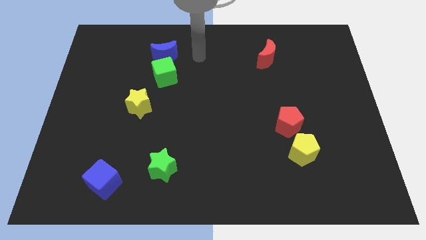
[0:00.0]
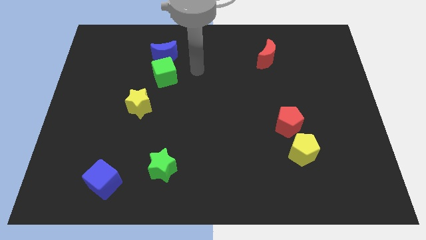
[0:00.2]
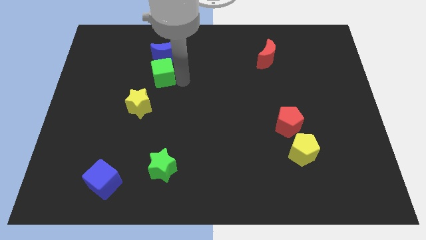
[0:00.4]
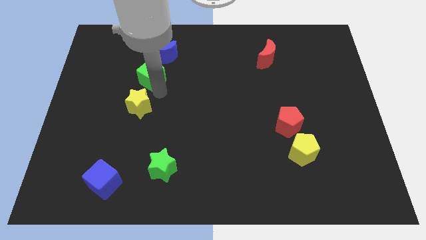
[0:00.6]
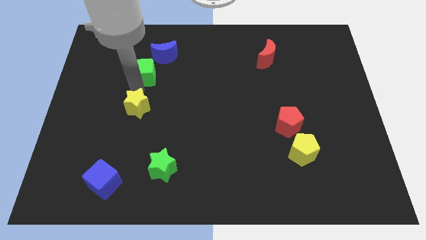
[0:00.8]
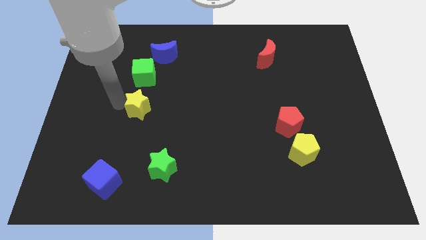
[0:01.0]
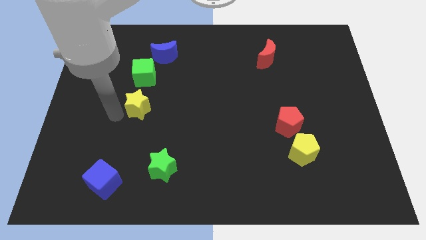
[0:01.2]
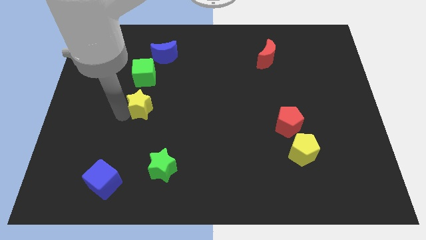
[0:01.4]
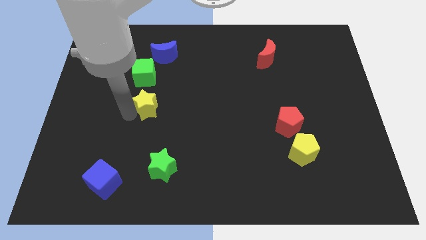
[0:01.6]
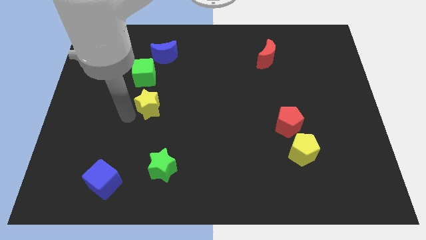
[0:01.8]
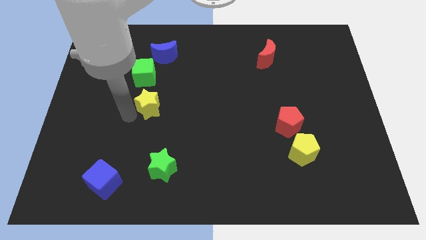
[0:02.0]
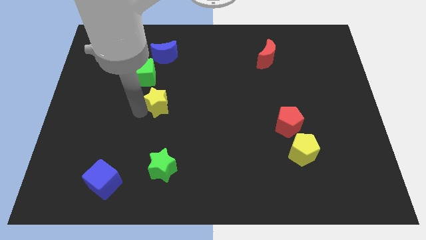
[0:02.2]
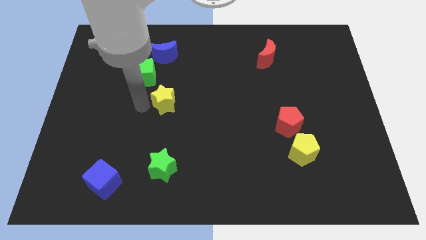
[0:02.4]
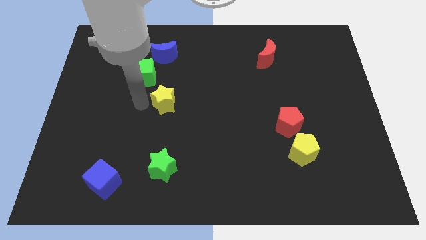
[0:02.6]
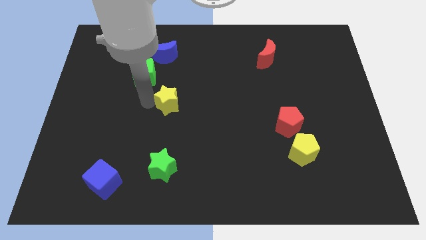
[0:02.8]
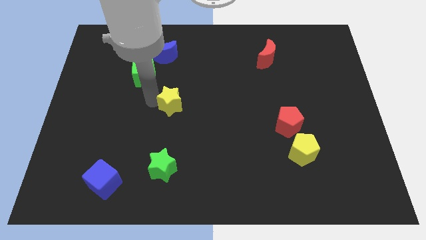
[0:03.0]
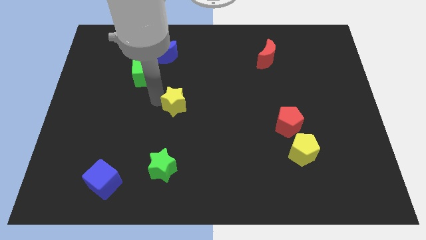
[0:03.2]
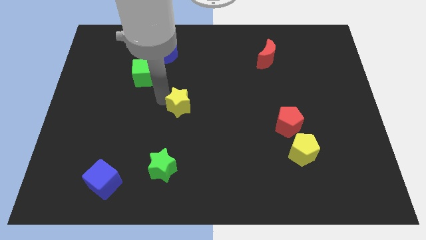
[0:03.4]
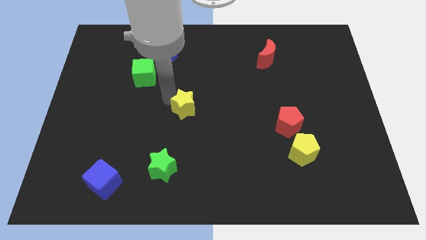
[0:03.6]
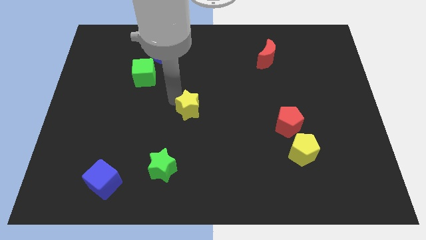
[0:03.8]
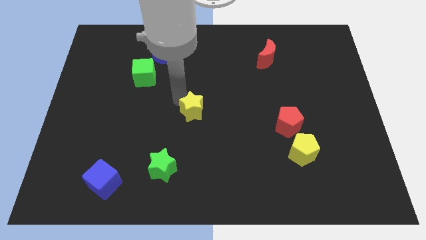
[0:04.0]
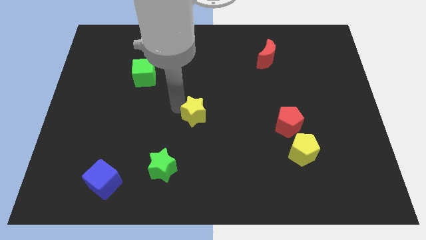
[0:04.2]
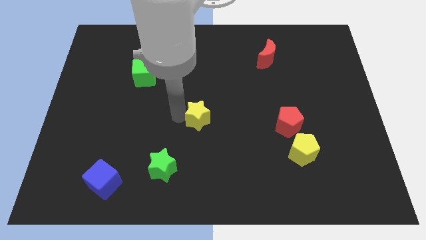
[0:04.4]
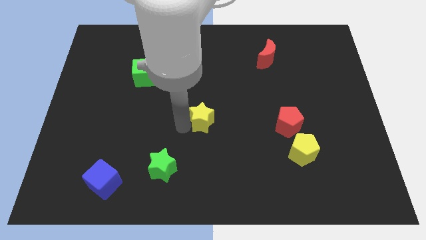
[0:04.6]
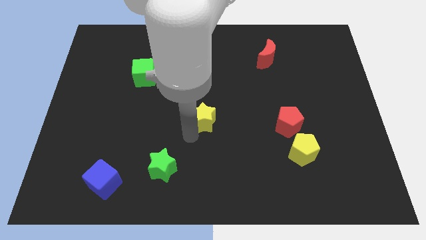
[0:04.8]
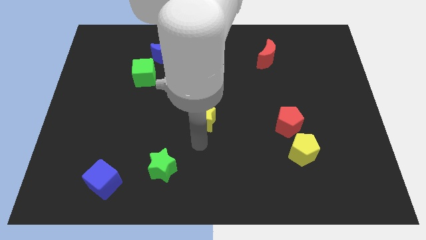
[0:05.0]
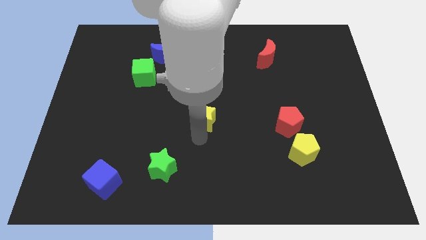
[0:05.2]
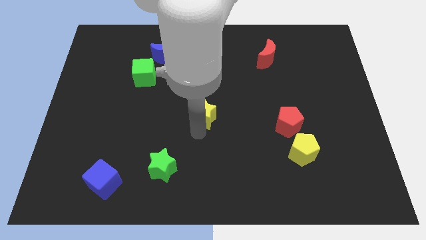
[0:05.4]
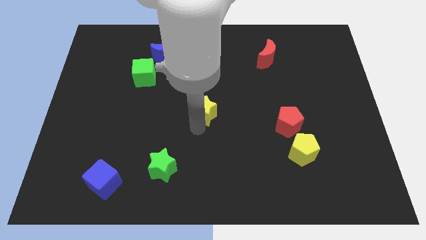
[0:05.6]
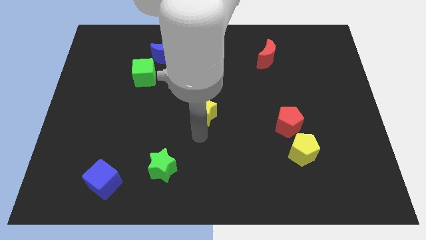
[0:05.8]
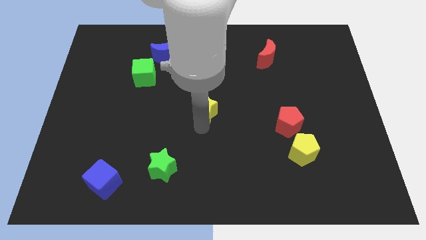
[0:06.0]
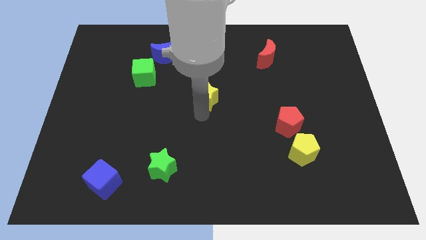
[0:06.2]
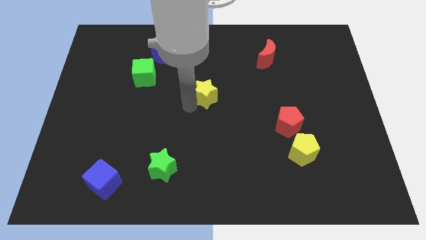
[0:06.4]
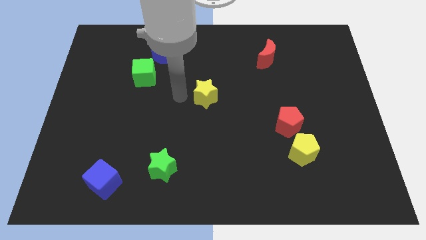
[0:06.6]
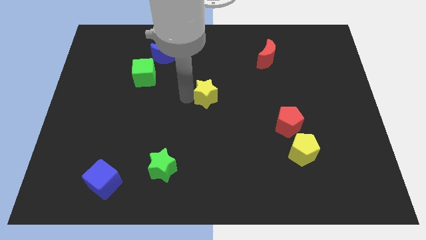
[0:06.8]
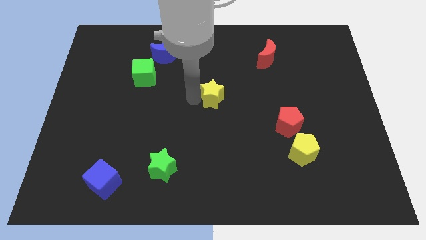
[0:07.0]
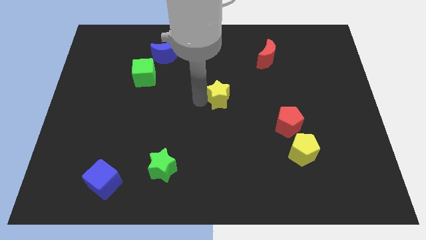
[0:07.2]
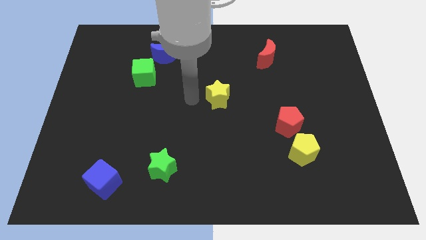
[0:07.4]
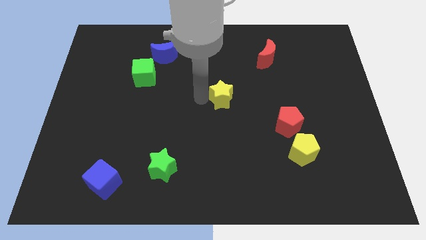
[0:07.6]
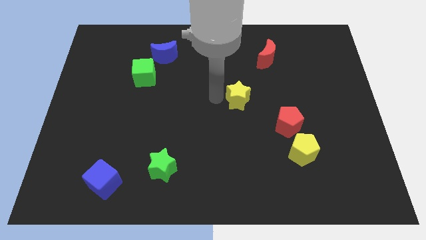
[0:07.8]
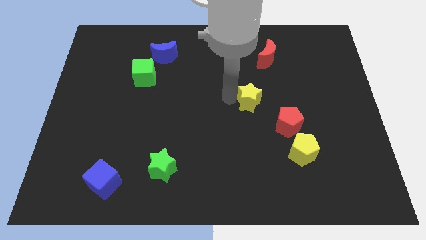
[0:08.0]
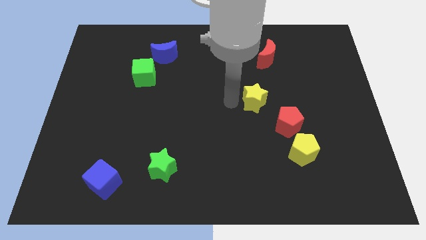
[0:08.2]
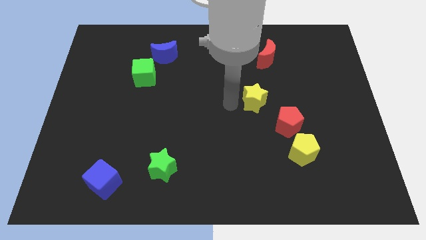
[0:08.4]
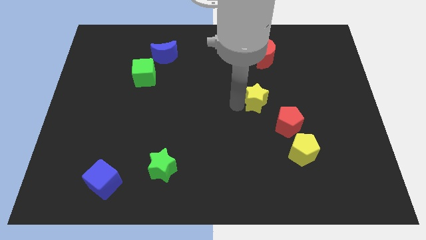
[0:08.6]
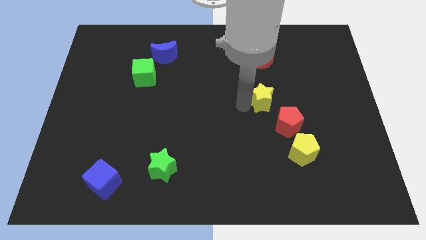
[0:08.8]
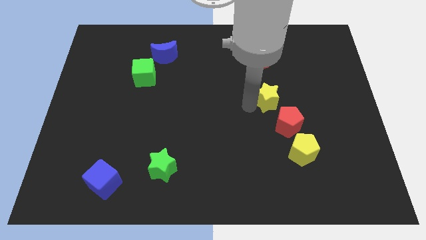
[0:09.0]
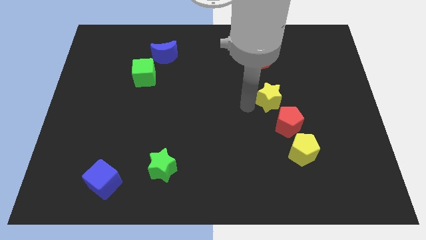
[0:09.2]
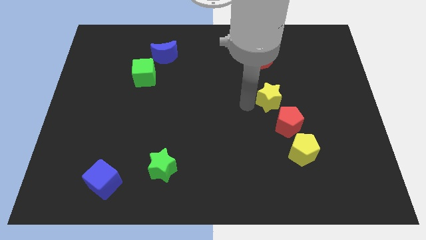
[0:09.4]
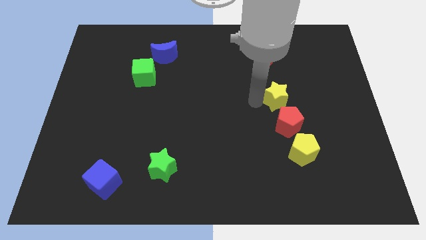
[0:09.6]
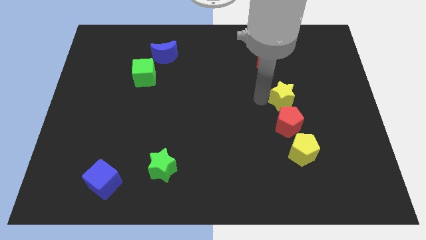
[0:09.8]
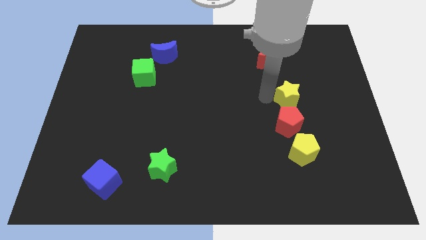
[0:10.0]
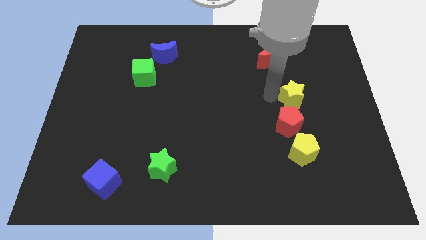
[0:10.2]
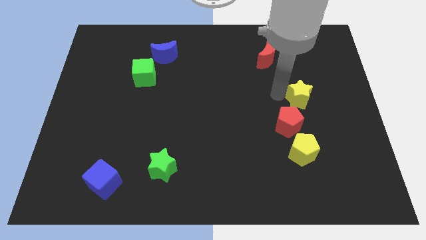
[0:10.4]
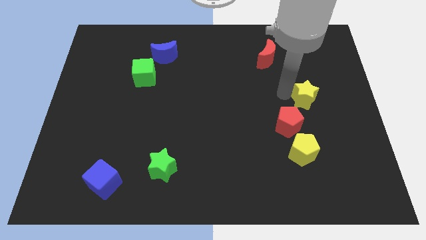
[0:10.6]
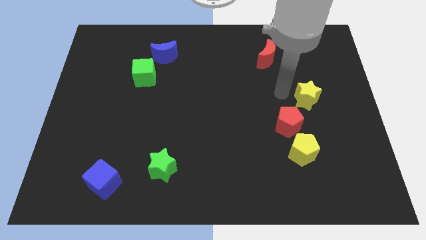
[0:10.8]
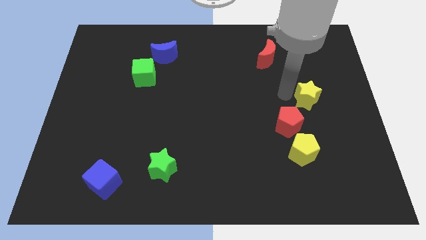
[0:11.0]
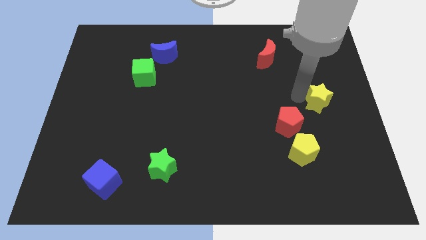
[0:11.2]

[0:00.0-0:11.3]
push the yellow star to the right side of the board

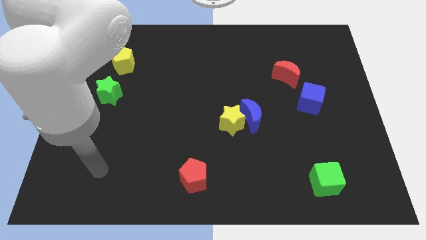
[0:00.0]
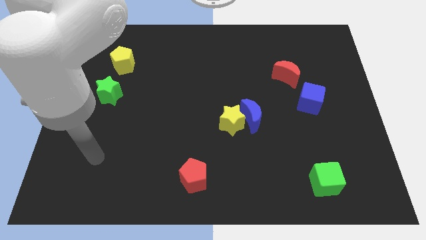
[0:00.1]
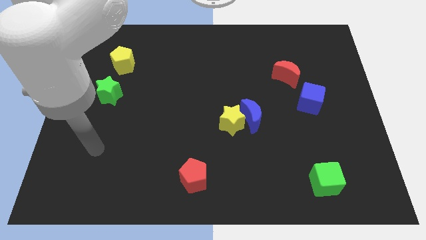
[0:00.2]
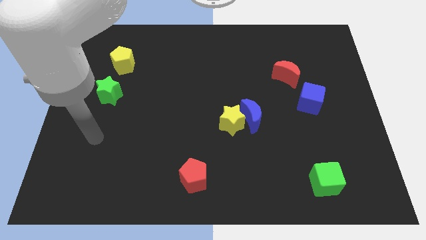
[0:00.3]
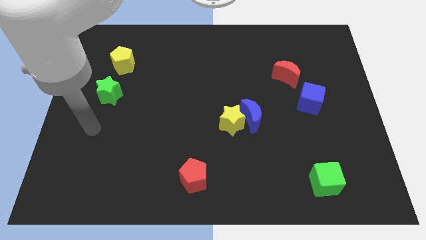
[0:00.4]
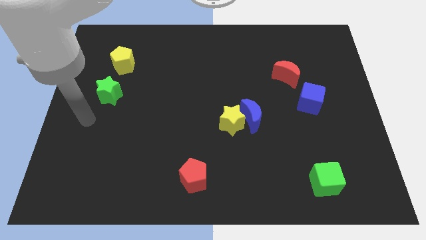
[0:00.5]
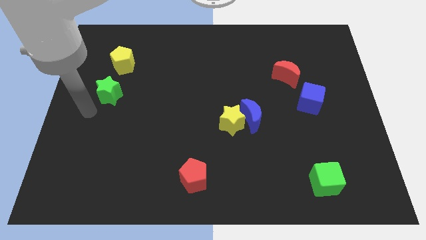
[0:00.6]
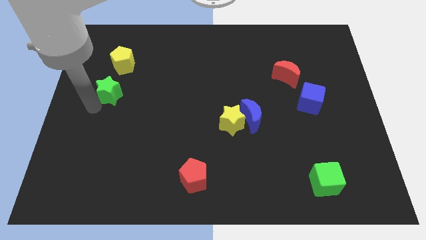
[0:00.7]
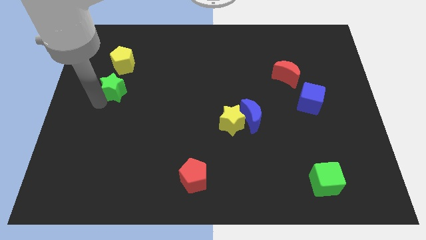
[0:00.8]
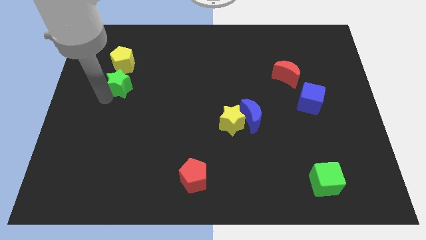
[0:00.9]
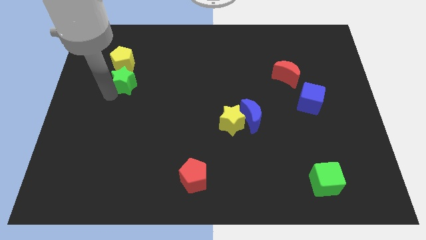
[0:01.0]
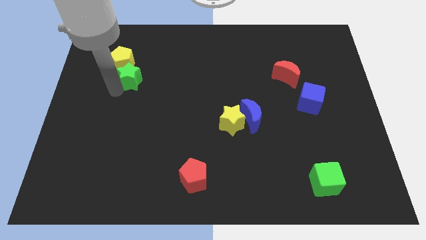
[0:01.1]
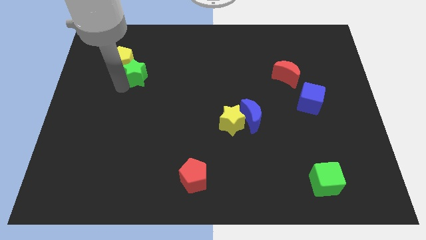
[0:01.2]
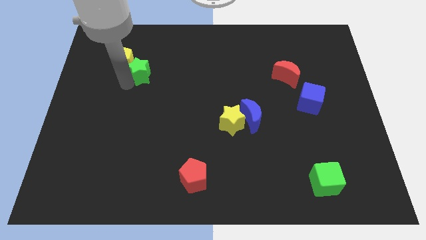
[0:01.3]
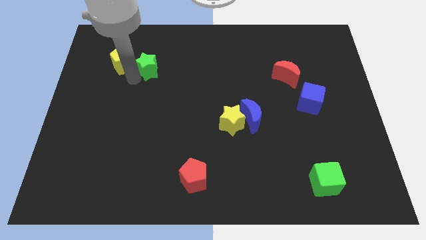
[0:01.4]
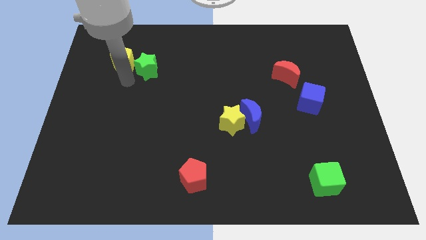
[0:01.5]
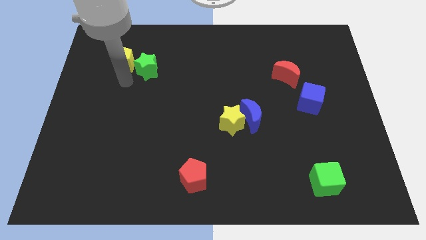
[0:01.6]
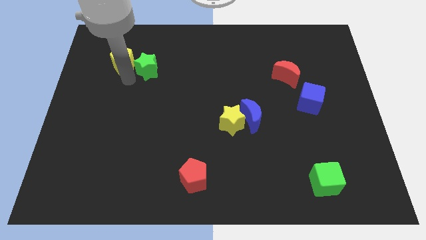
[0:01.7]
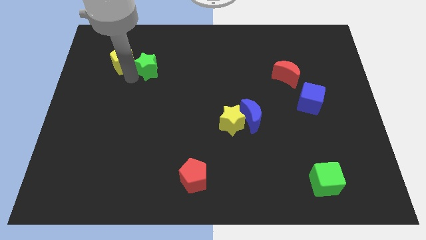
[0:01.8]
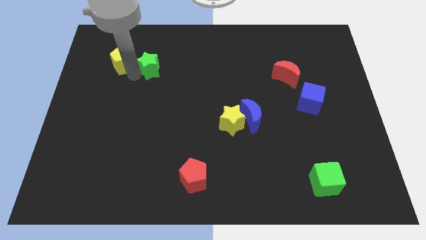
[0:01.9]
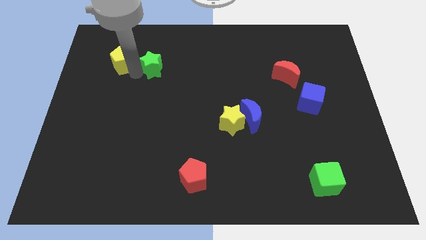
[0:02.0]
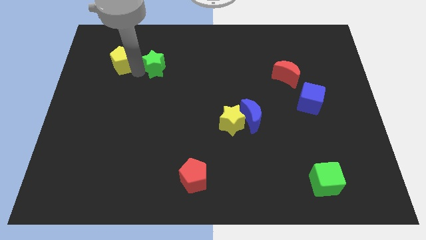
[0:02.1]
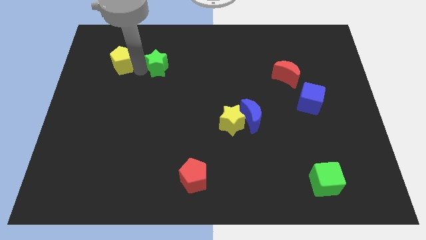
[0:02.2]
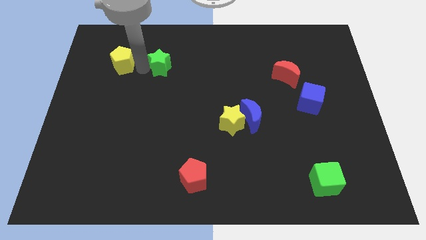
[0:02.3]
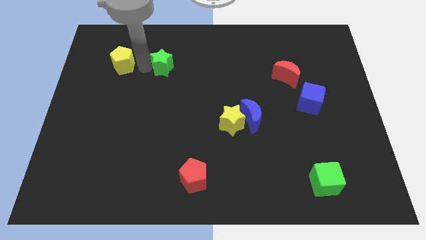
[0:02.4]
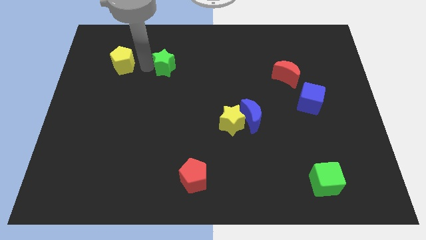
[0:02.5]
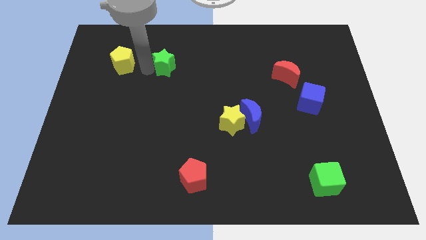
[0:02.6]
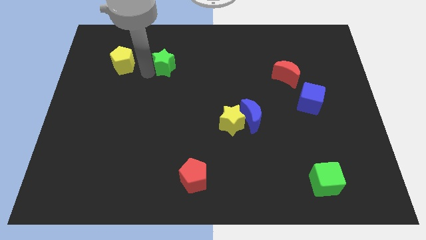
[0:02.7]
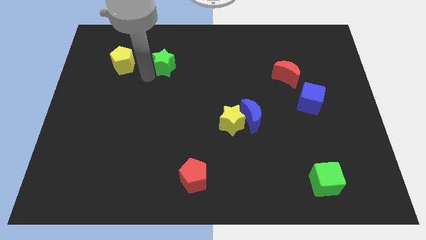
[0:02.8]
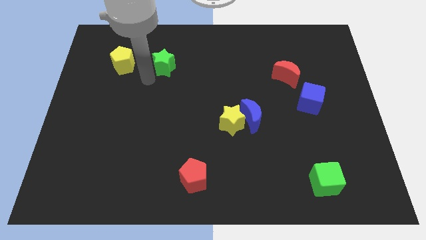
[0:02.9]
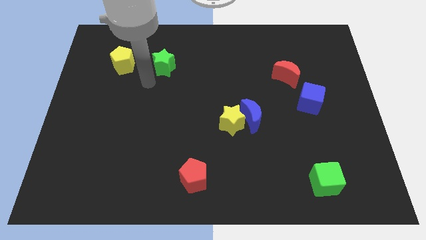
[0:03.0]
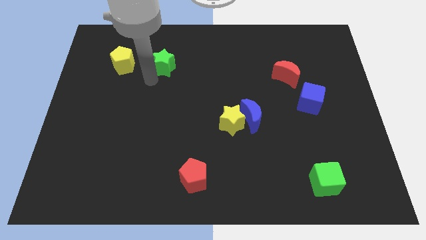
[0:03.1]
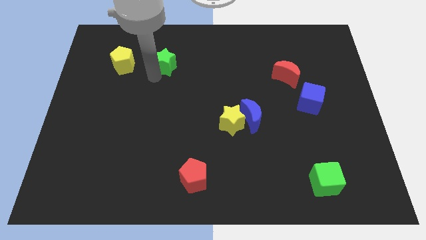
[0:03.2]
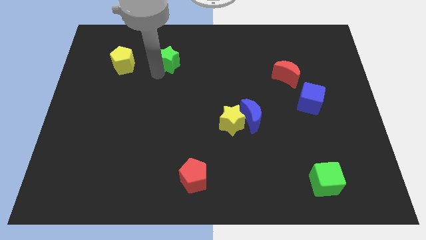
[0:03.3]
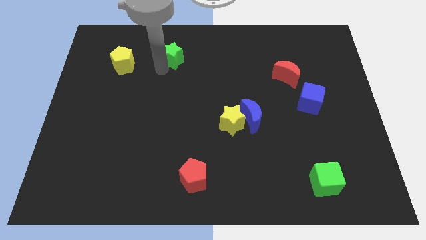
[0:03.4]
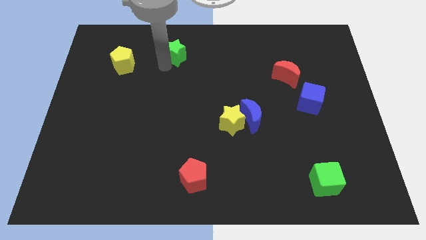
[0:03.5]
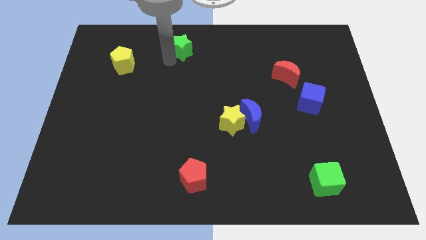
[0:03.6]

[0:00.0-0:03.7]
slide the green star to the top side
